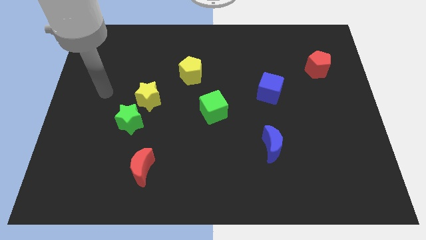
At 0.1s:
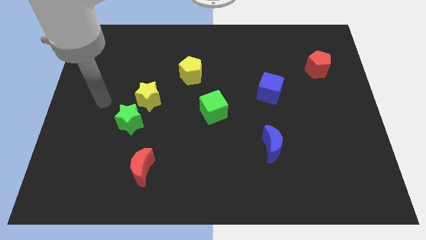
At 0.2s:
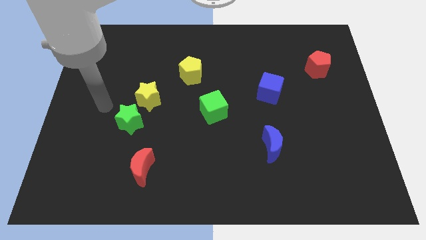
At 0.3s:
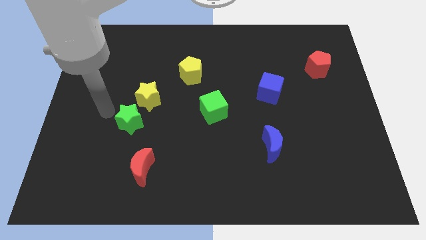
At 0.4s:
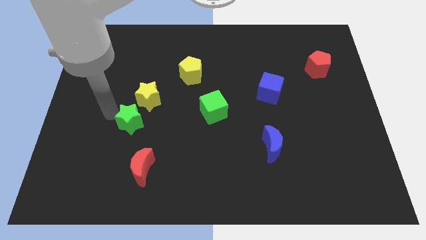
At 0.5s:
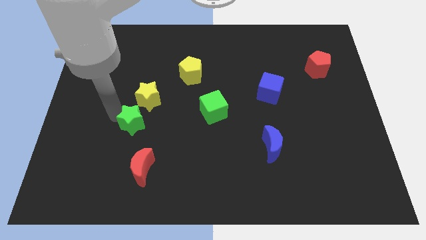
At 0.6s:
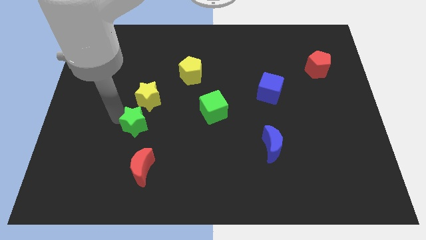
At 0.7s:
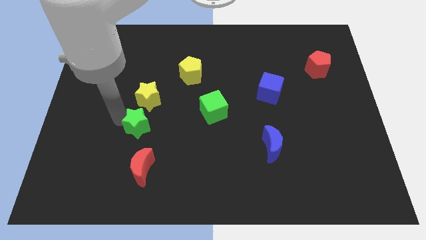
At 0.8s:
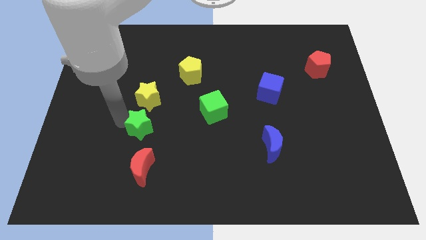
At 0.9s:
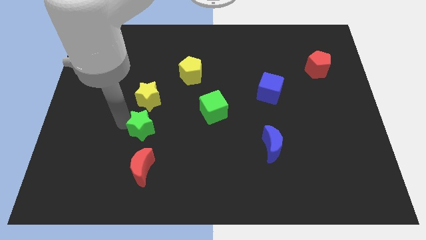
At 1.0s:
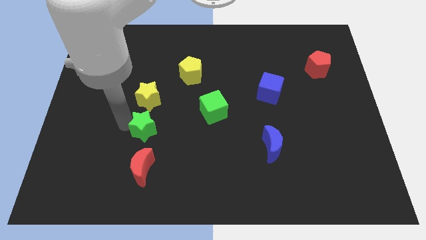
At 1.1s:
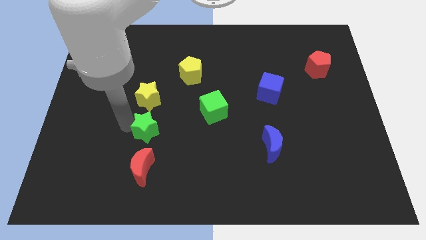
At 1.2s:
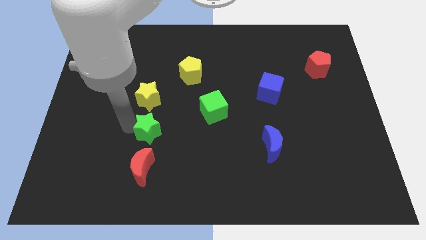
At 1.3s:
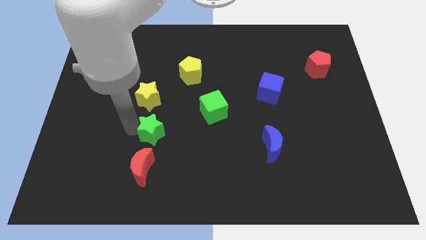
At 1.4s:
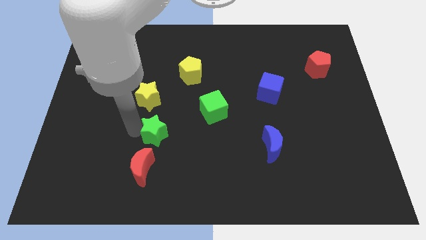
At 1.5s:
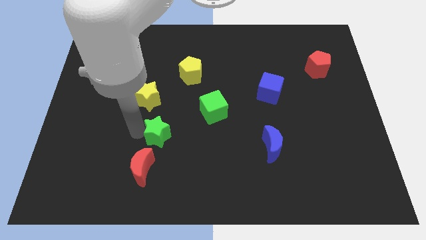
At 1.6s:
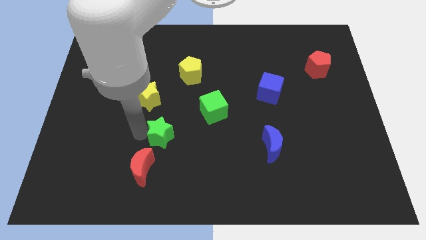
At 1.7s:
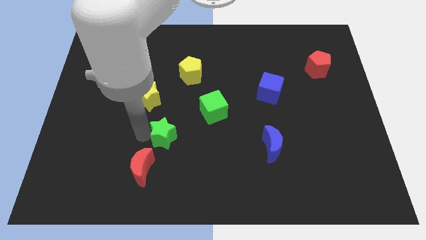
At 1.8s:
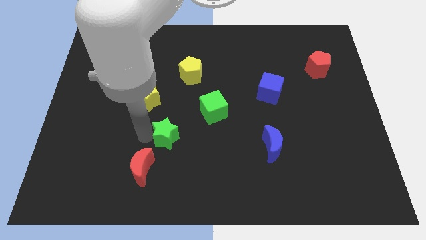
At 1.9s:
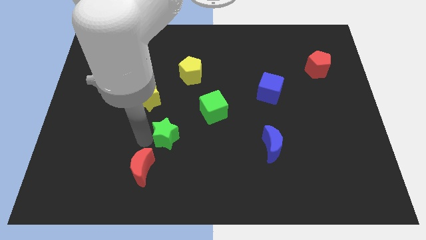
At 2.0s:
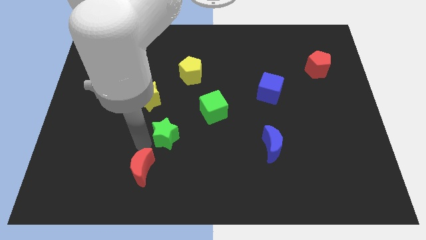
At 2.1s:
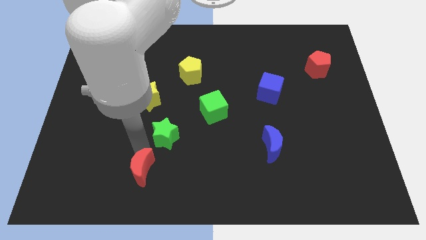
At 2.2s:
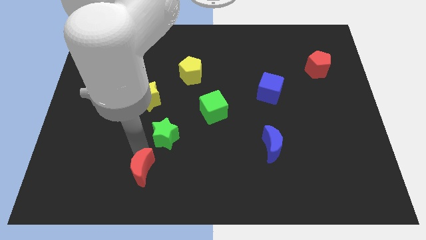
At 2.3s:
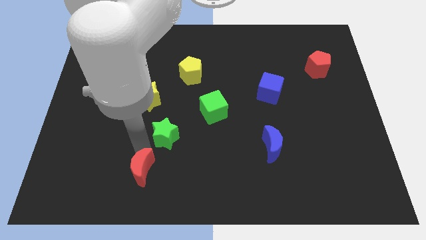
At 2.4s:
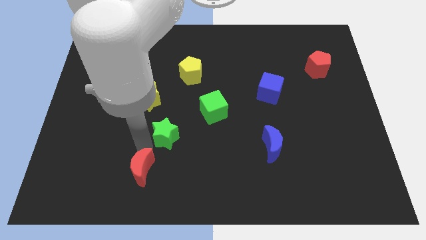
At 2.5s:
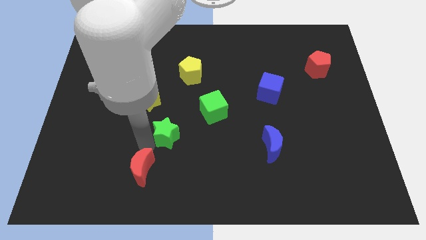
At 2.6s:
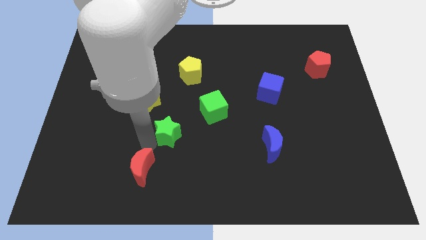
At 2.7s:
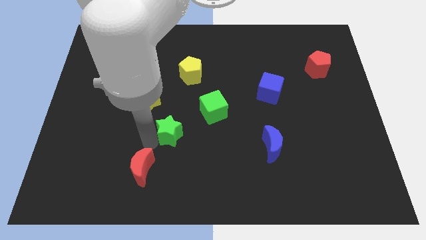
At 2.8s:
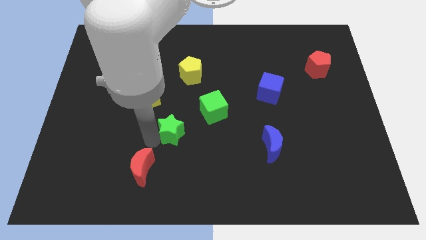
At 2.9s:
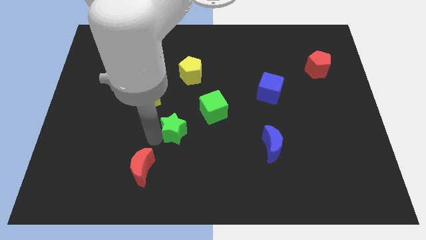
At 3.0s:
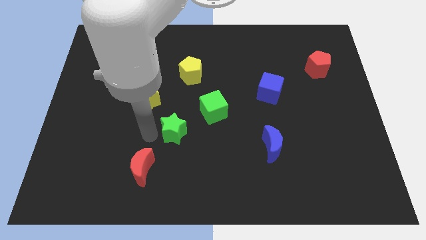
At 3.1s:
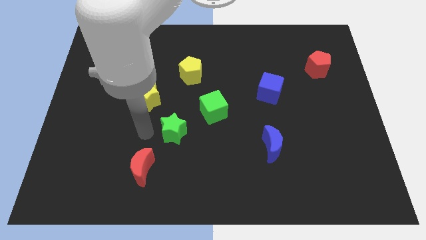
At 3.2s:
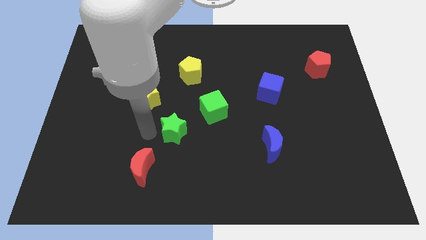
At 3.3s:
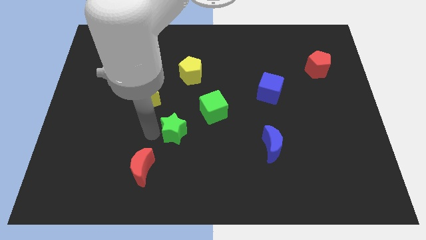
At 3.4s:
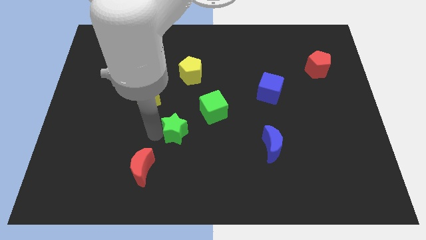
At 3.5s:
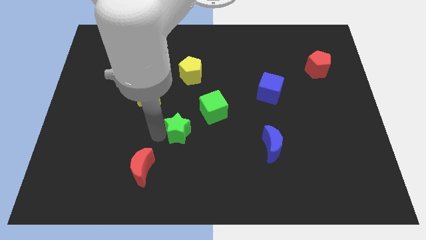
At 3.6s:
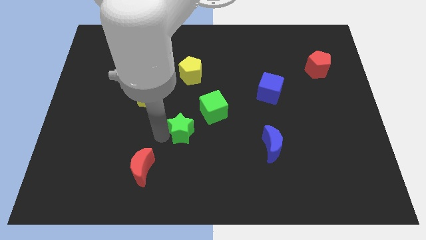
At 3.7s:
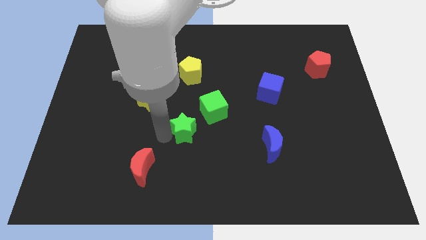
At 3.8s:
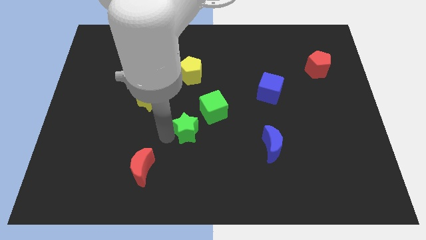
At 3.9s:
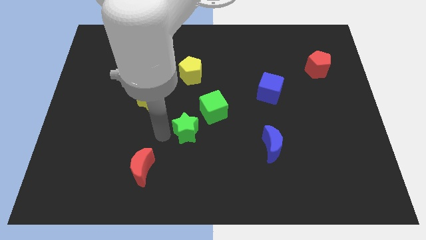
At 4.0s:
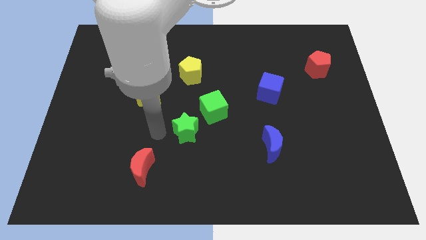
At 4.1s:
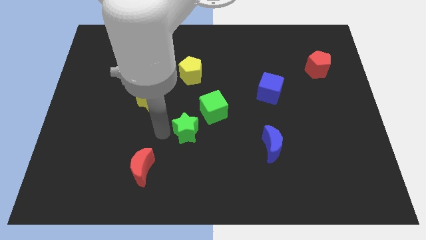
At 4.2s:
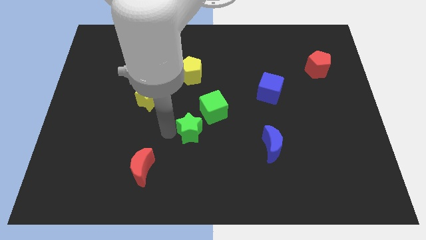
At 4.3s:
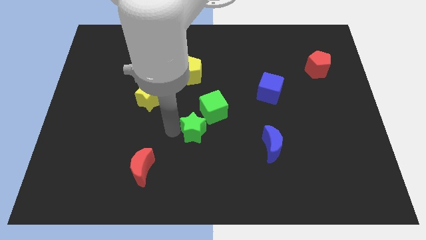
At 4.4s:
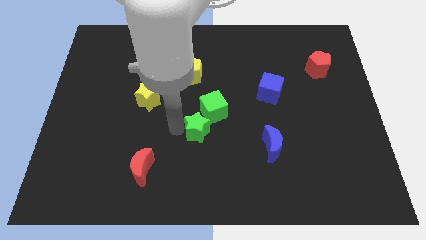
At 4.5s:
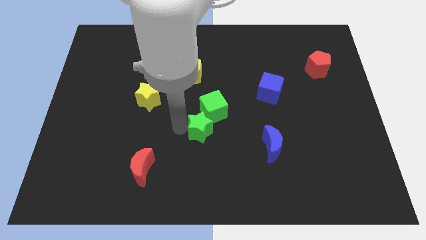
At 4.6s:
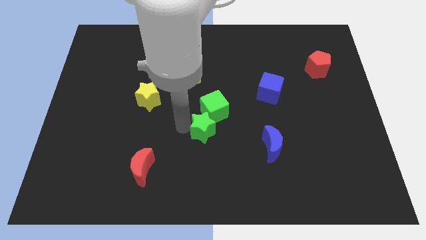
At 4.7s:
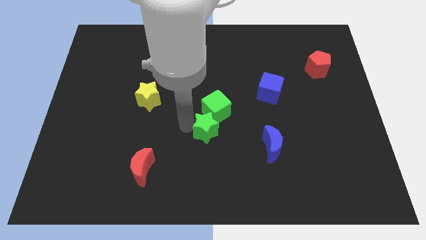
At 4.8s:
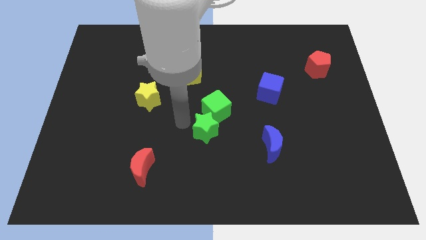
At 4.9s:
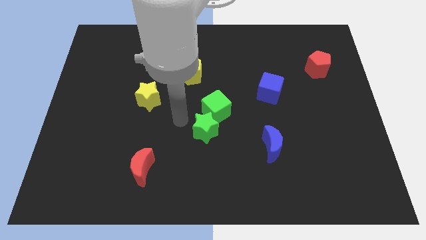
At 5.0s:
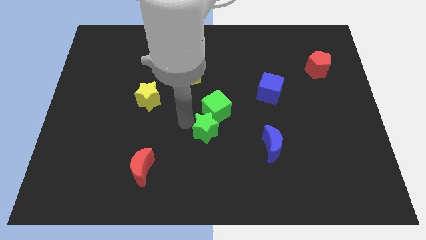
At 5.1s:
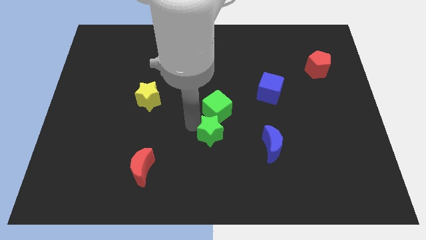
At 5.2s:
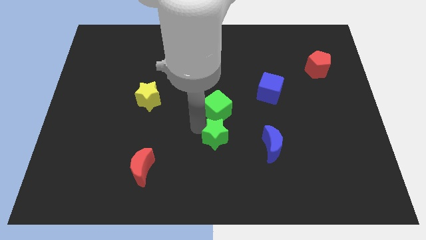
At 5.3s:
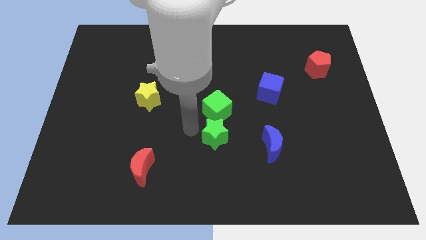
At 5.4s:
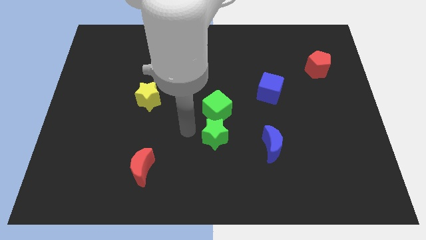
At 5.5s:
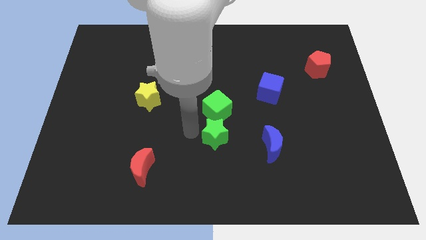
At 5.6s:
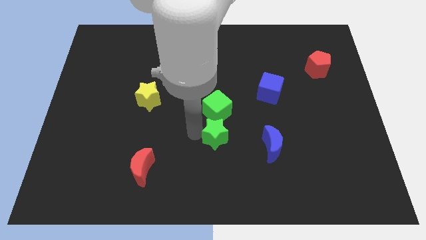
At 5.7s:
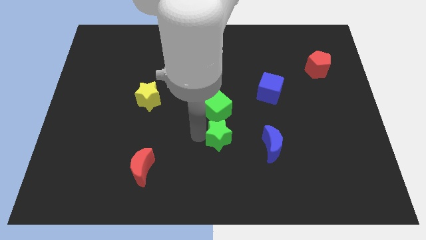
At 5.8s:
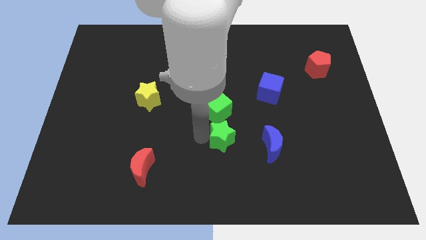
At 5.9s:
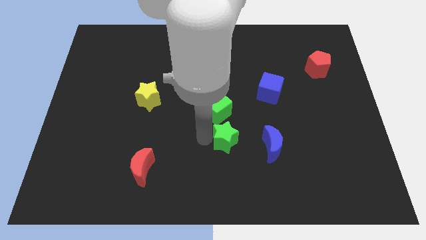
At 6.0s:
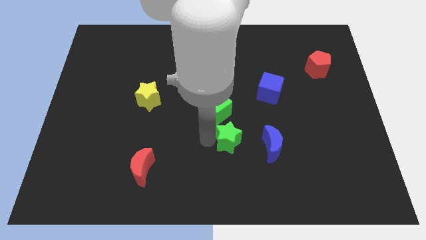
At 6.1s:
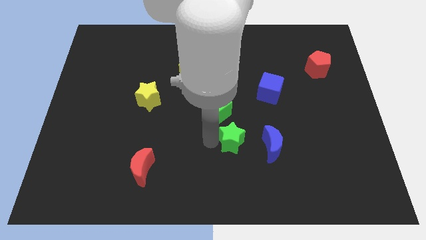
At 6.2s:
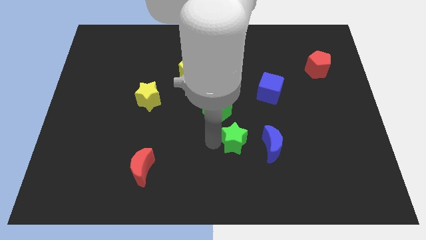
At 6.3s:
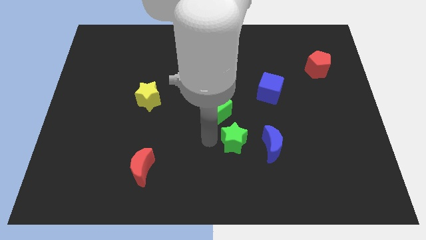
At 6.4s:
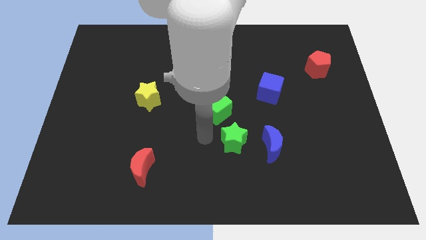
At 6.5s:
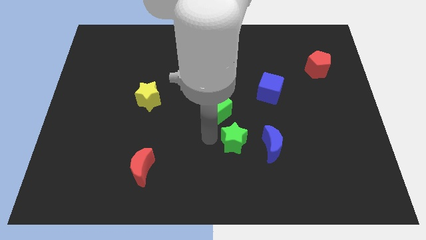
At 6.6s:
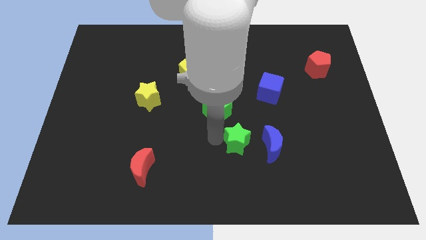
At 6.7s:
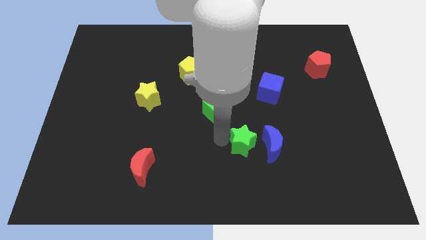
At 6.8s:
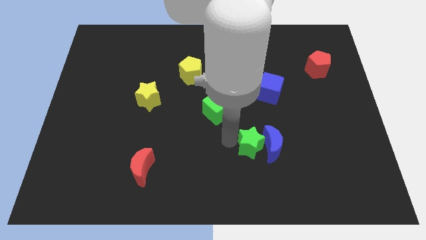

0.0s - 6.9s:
put the green star towards the blue moon

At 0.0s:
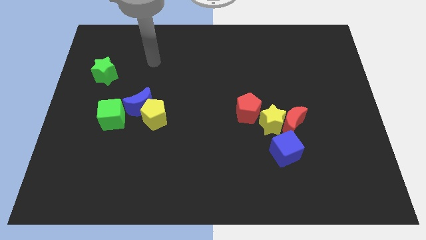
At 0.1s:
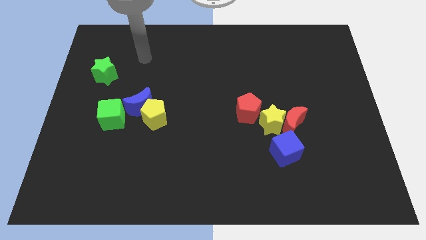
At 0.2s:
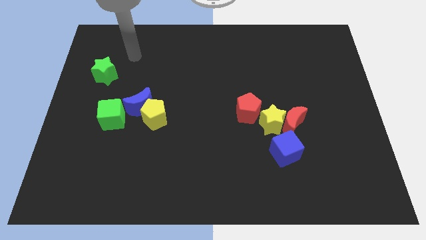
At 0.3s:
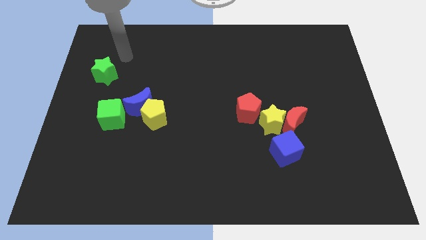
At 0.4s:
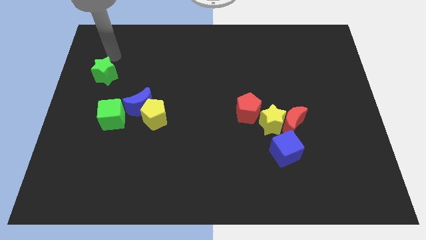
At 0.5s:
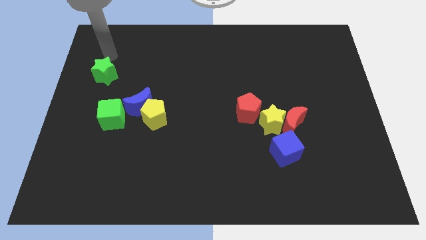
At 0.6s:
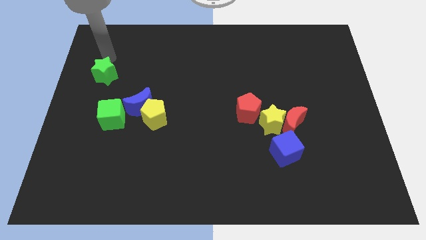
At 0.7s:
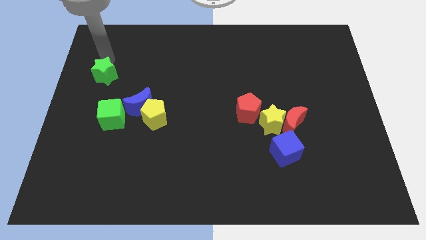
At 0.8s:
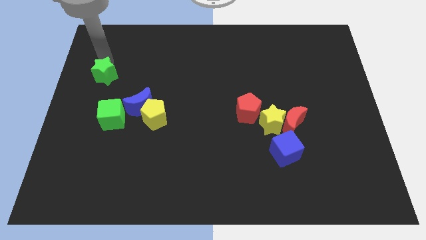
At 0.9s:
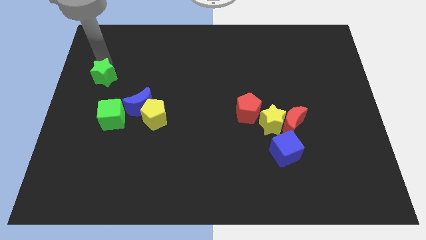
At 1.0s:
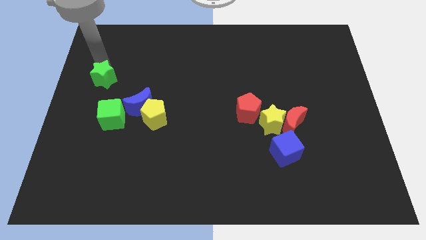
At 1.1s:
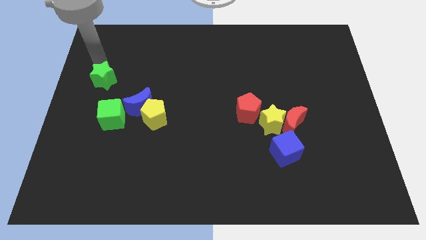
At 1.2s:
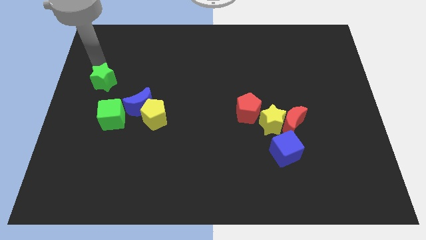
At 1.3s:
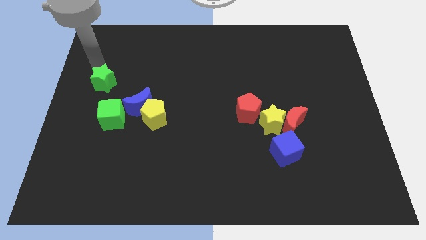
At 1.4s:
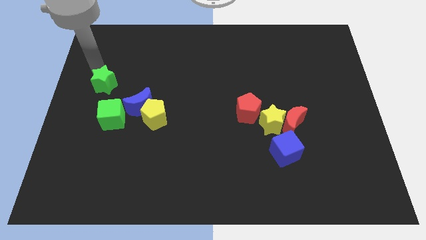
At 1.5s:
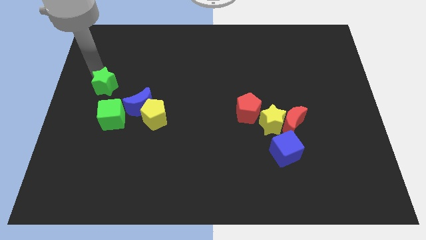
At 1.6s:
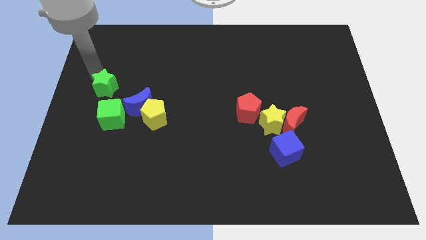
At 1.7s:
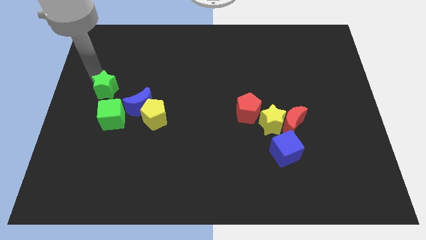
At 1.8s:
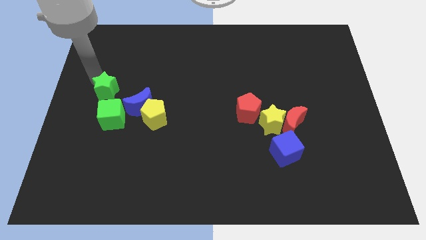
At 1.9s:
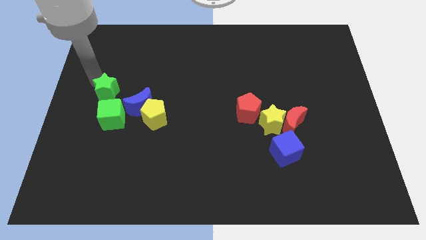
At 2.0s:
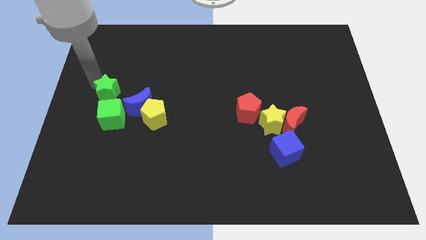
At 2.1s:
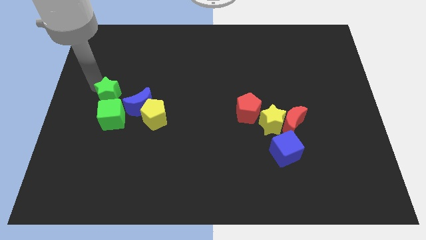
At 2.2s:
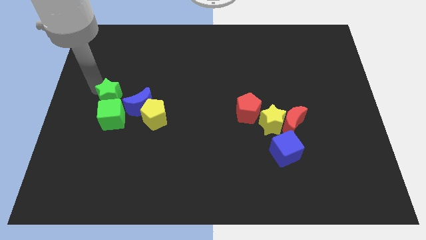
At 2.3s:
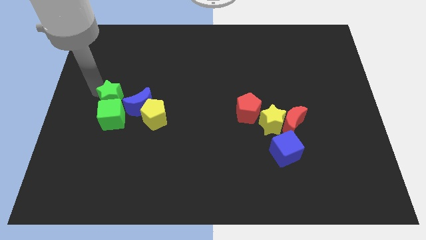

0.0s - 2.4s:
slide the green star to the green cube
